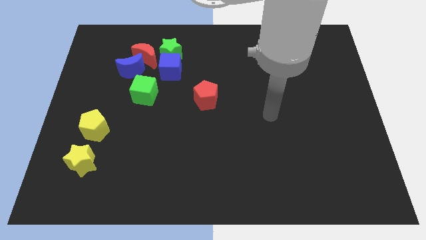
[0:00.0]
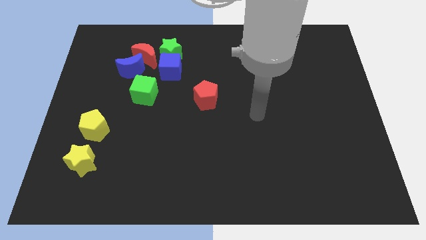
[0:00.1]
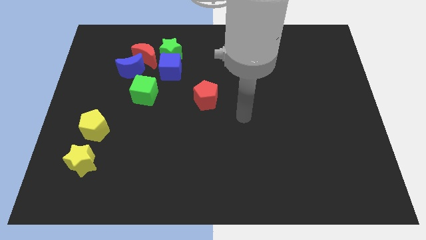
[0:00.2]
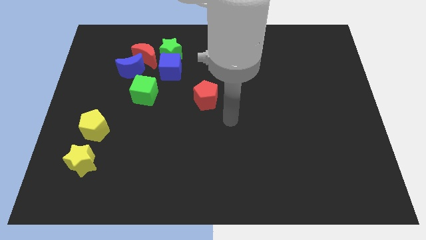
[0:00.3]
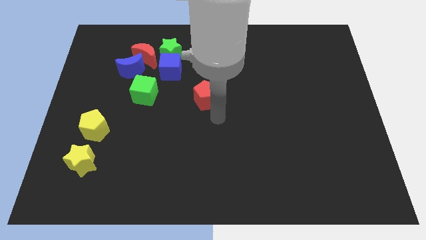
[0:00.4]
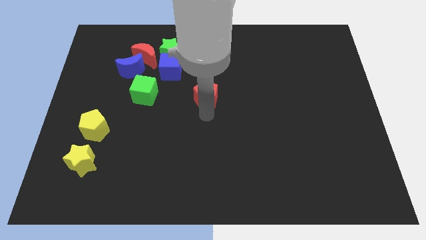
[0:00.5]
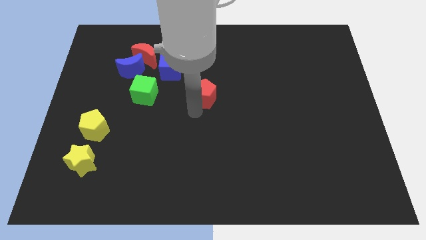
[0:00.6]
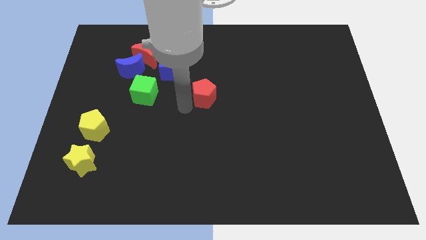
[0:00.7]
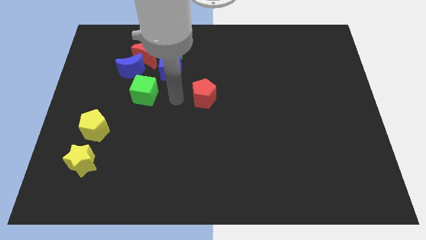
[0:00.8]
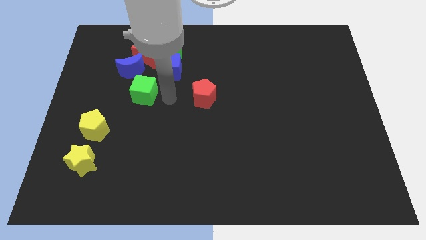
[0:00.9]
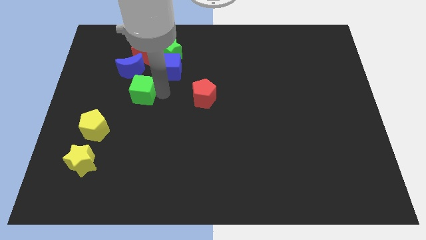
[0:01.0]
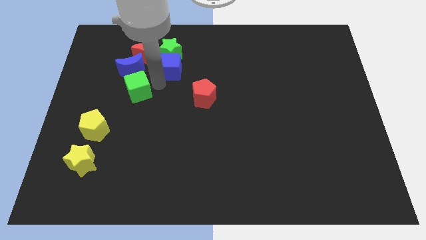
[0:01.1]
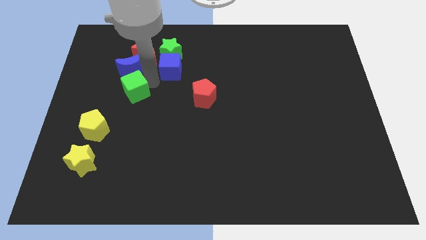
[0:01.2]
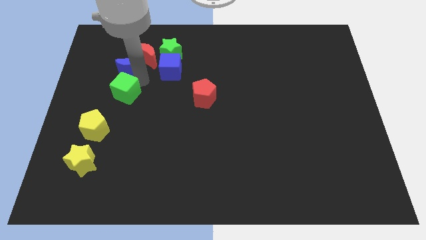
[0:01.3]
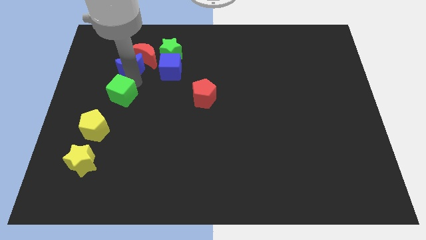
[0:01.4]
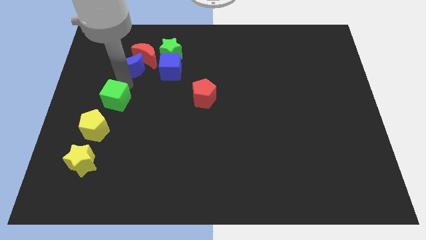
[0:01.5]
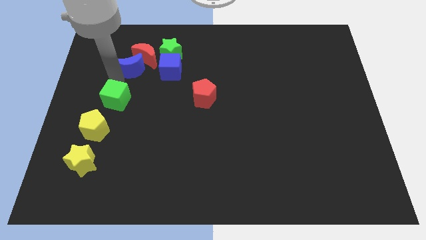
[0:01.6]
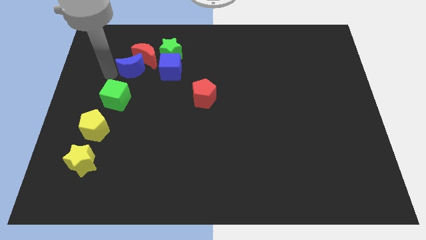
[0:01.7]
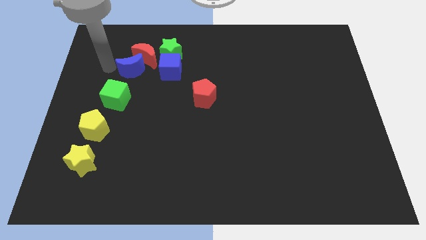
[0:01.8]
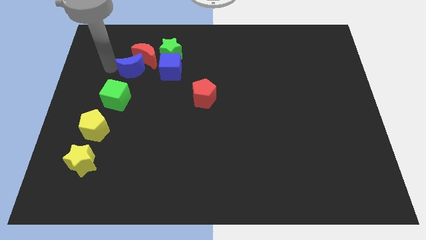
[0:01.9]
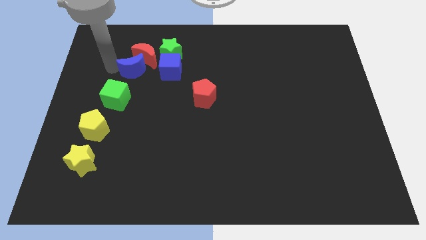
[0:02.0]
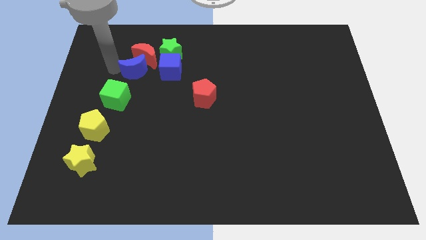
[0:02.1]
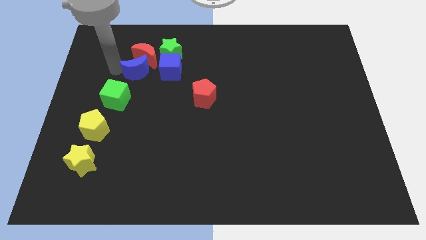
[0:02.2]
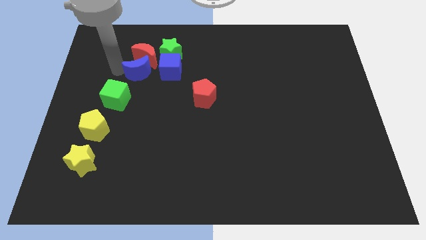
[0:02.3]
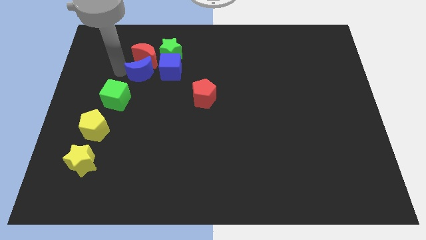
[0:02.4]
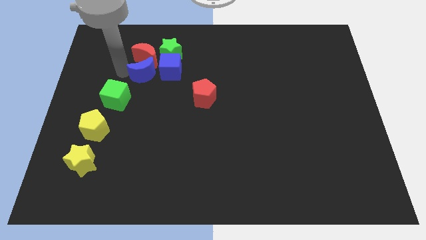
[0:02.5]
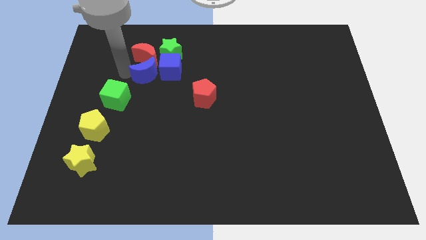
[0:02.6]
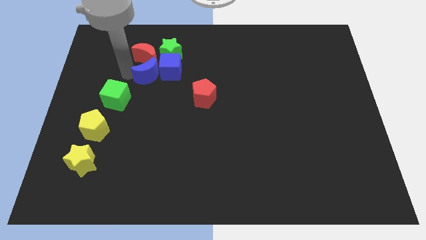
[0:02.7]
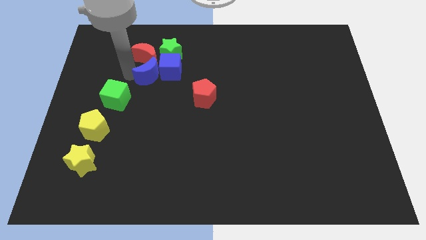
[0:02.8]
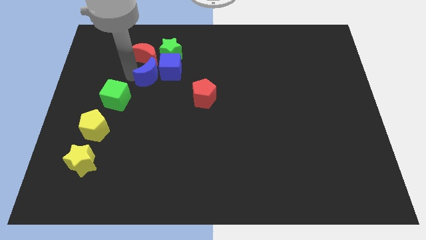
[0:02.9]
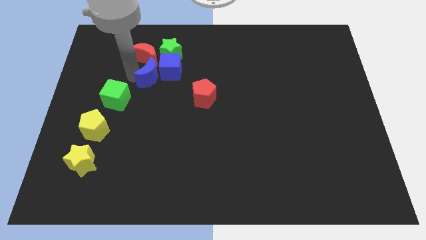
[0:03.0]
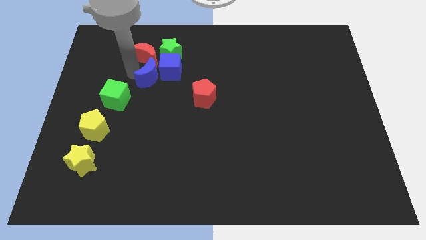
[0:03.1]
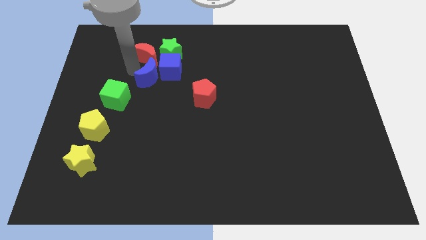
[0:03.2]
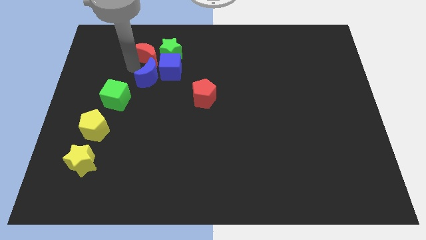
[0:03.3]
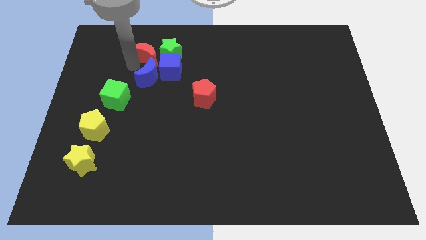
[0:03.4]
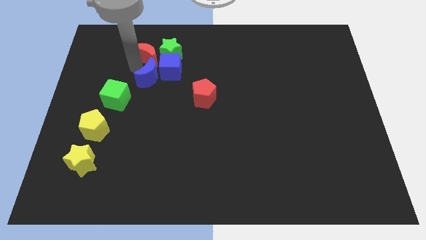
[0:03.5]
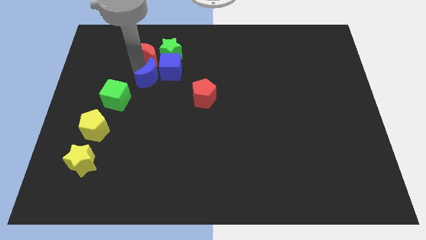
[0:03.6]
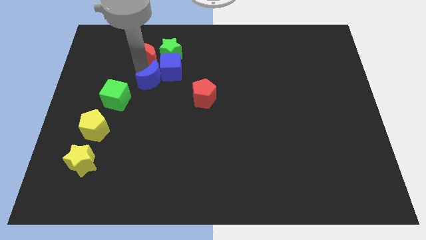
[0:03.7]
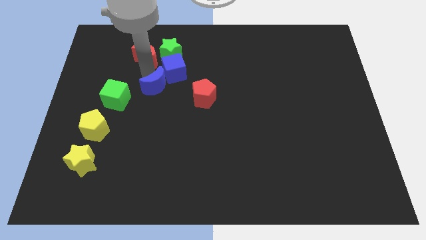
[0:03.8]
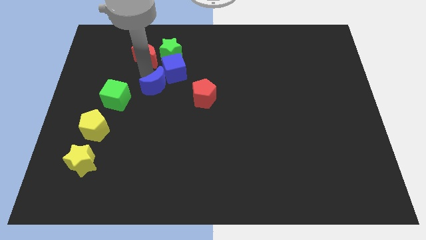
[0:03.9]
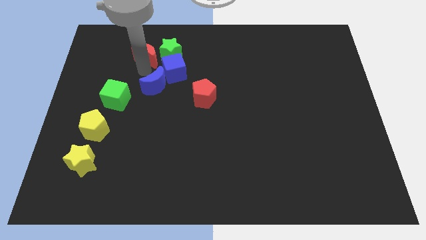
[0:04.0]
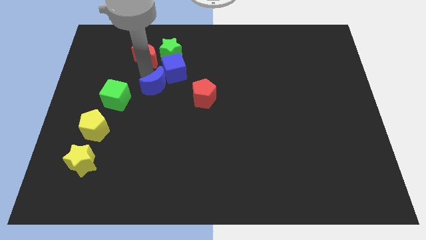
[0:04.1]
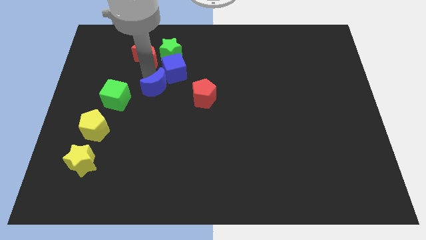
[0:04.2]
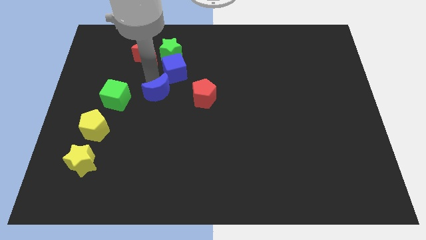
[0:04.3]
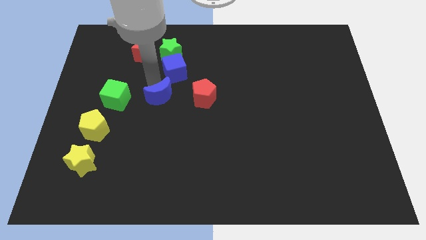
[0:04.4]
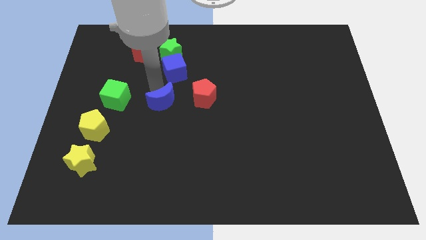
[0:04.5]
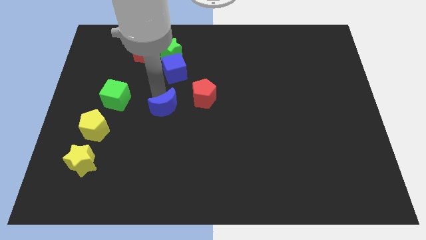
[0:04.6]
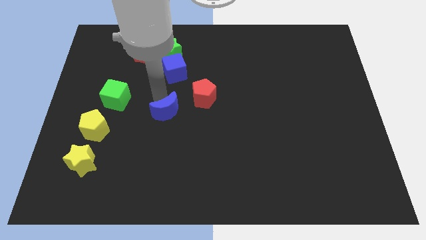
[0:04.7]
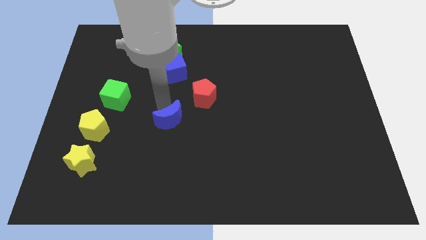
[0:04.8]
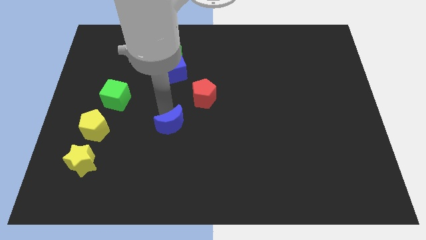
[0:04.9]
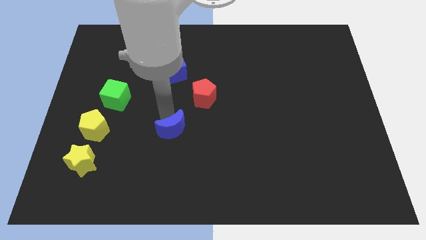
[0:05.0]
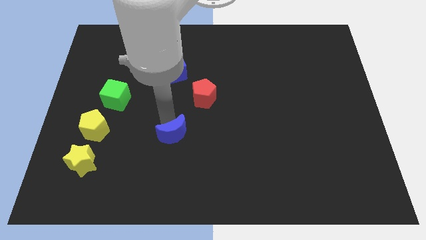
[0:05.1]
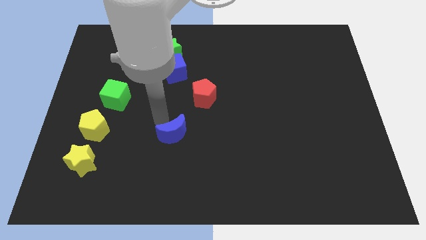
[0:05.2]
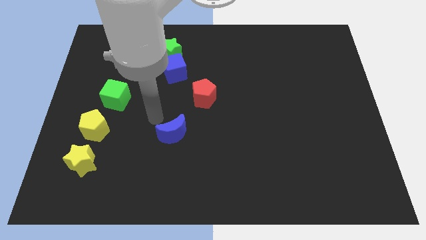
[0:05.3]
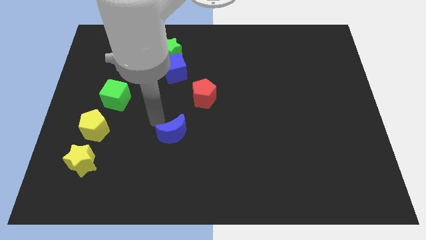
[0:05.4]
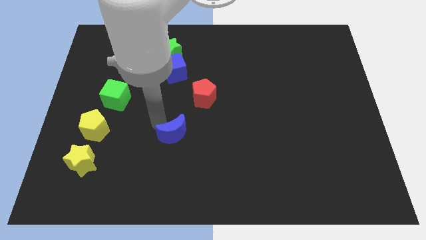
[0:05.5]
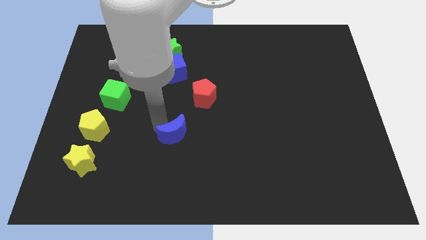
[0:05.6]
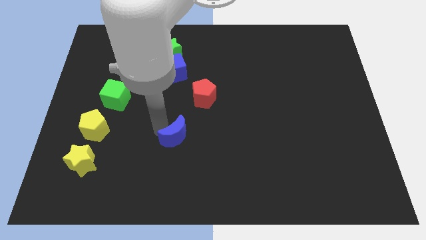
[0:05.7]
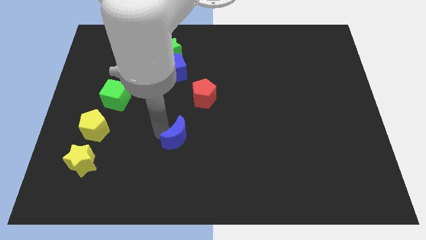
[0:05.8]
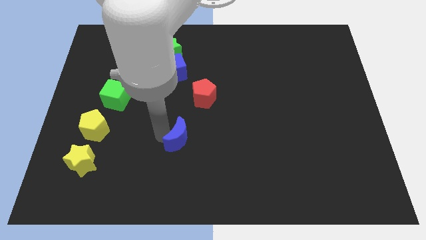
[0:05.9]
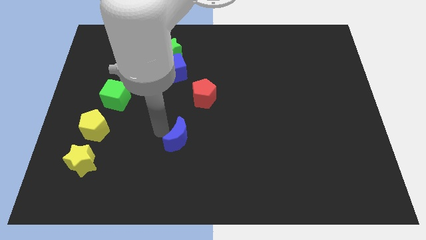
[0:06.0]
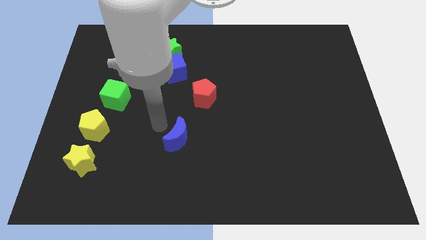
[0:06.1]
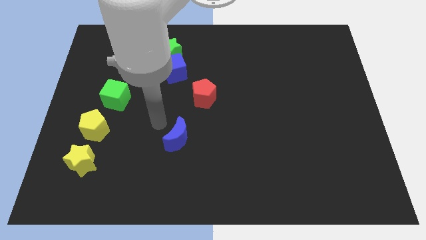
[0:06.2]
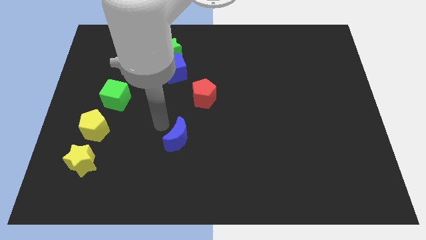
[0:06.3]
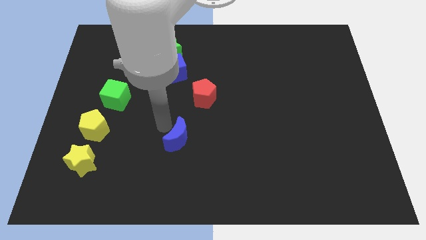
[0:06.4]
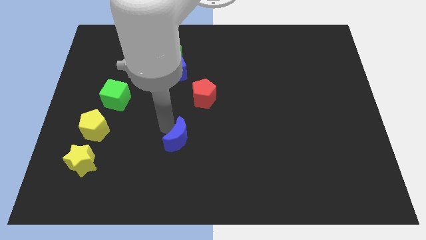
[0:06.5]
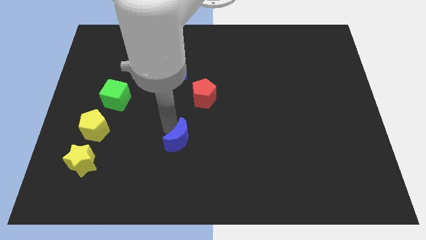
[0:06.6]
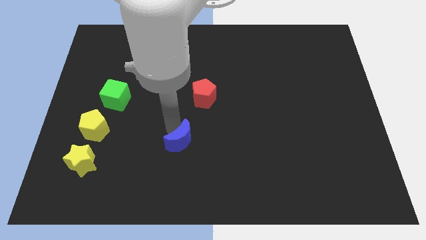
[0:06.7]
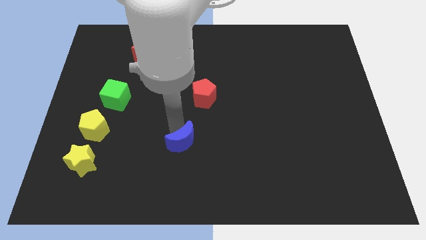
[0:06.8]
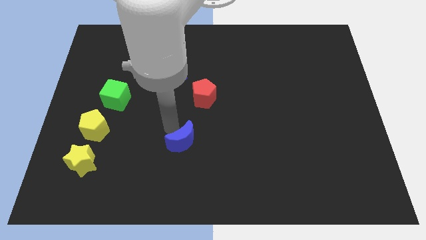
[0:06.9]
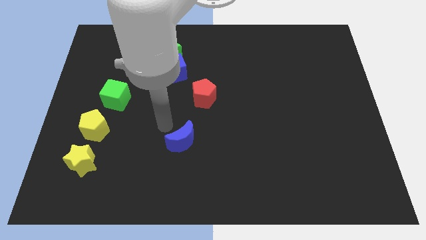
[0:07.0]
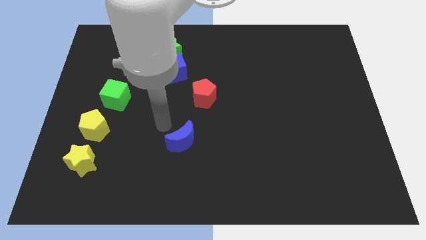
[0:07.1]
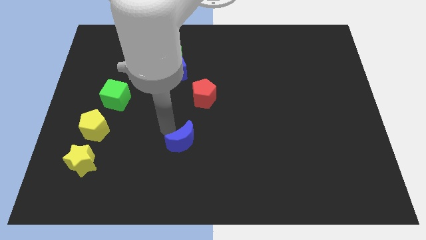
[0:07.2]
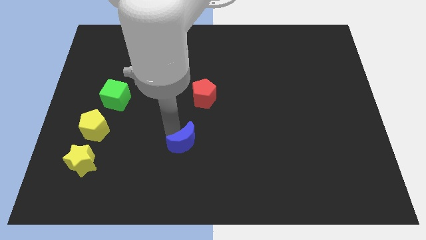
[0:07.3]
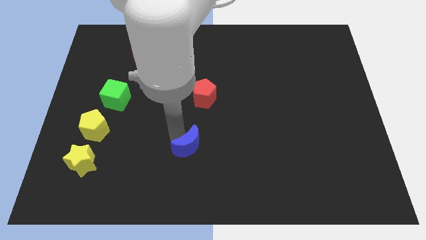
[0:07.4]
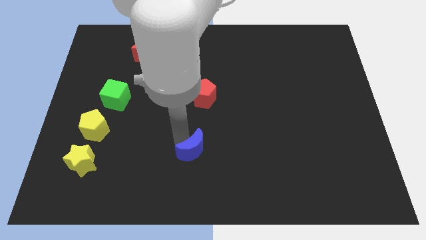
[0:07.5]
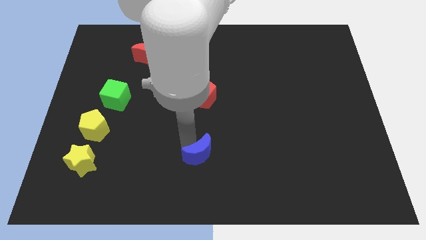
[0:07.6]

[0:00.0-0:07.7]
move the blue moon to the bottom

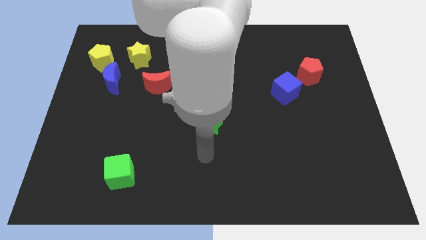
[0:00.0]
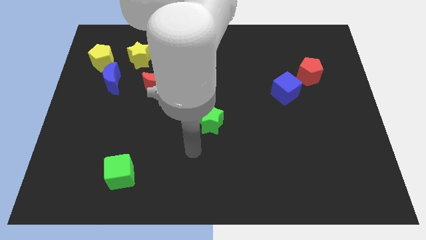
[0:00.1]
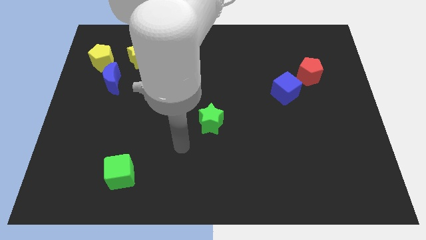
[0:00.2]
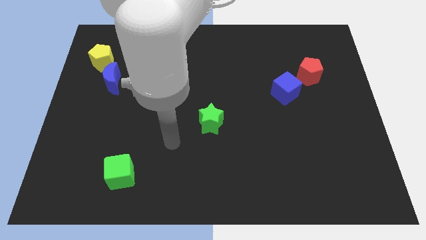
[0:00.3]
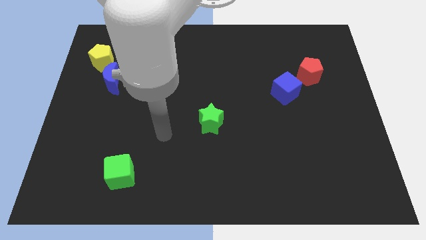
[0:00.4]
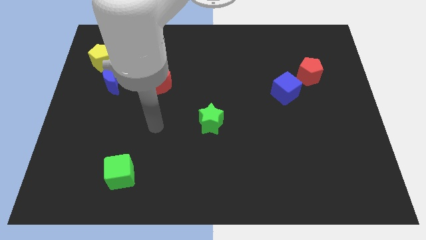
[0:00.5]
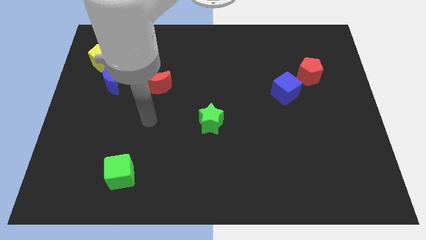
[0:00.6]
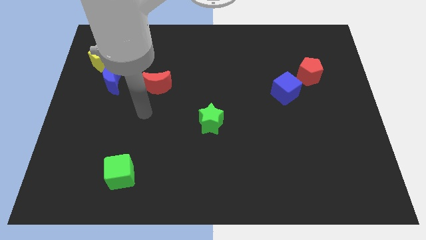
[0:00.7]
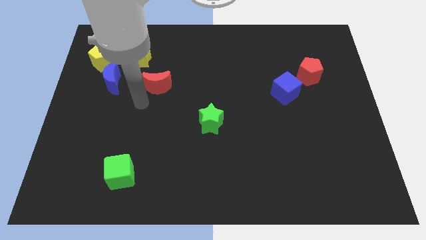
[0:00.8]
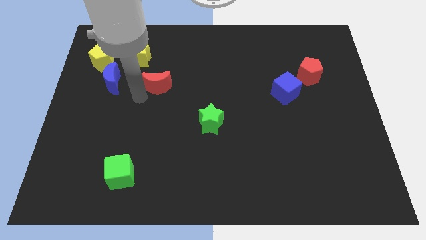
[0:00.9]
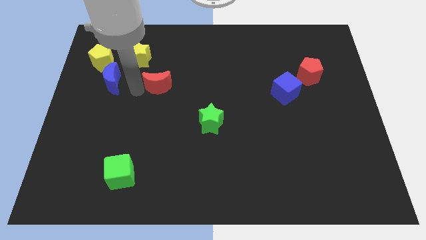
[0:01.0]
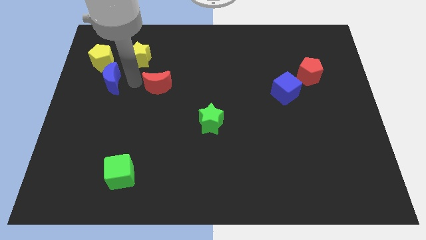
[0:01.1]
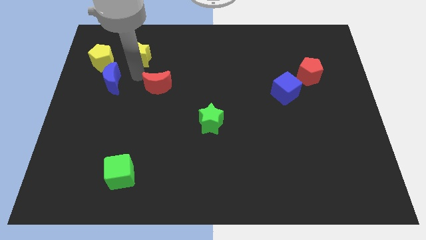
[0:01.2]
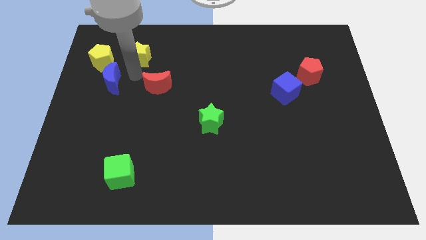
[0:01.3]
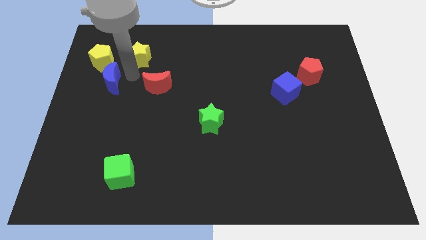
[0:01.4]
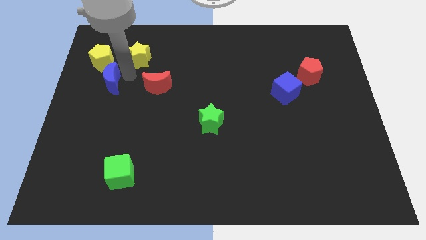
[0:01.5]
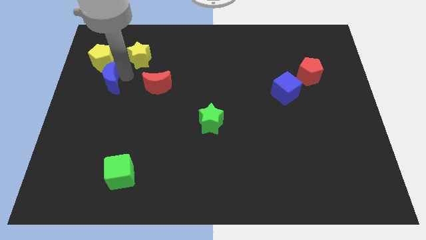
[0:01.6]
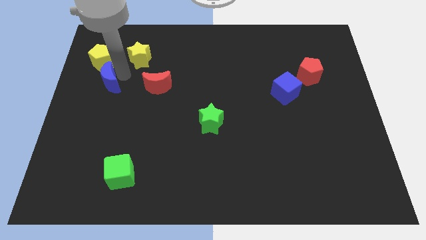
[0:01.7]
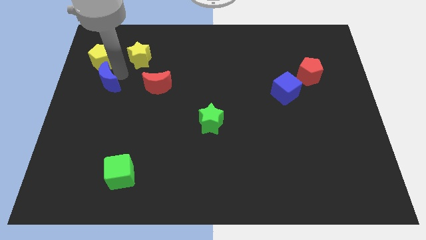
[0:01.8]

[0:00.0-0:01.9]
push the blue moon to the left side of the board
